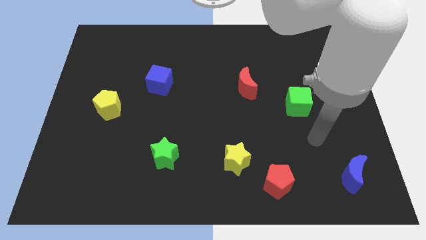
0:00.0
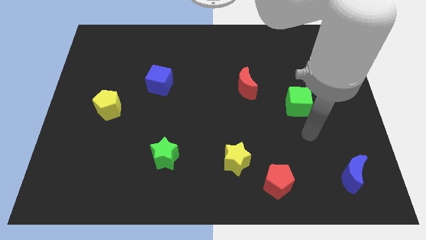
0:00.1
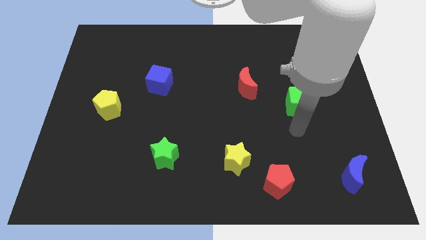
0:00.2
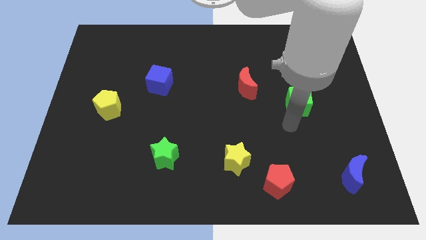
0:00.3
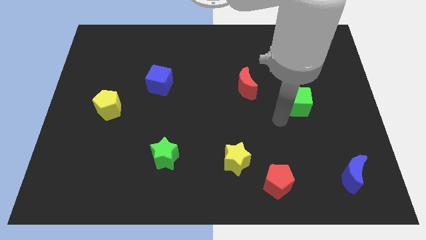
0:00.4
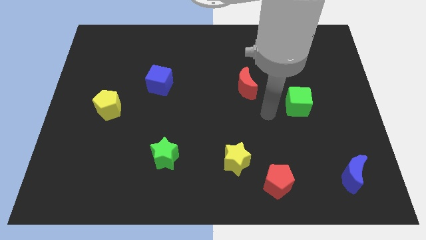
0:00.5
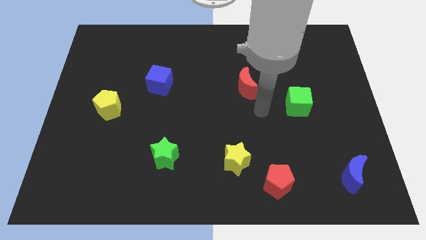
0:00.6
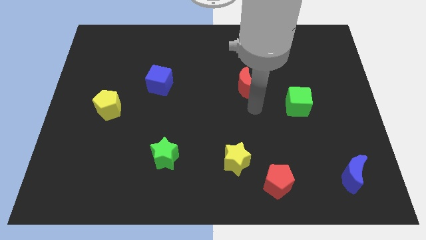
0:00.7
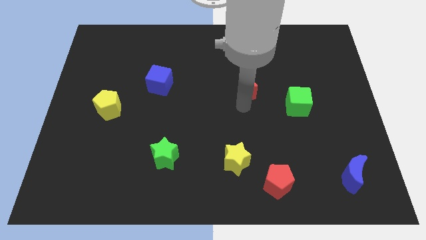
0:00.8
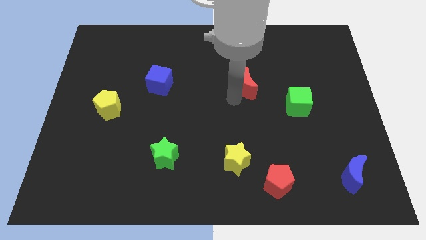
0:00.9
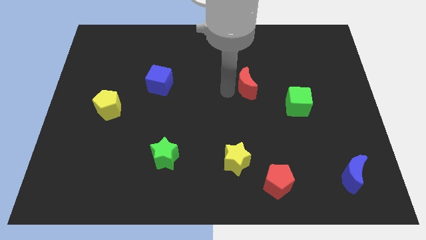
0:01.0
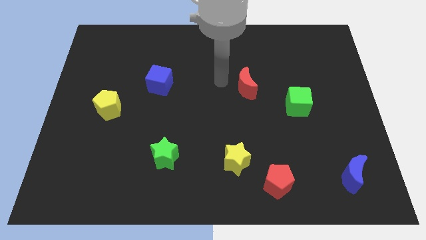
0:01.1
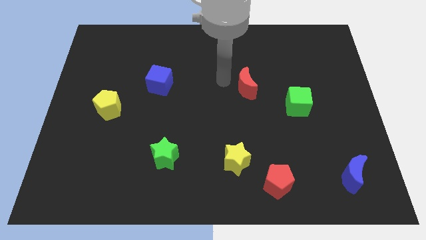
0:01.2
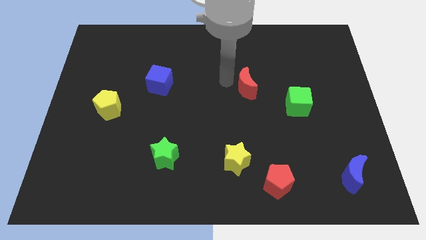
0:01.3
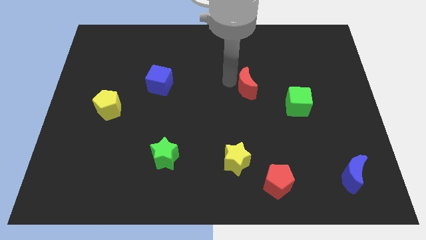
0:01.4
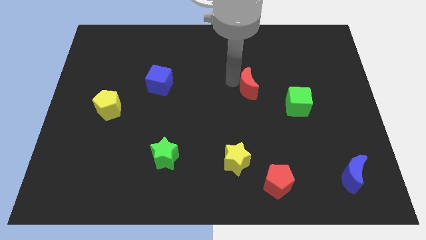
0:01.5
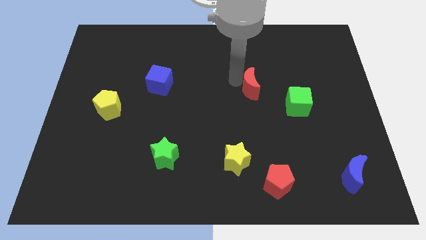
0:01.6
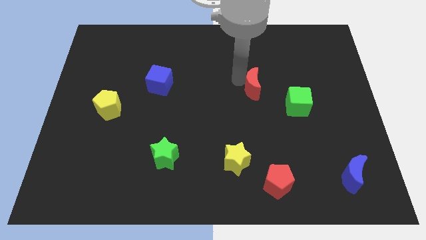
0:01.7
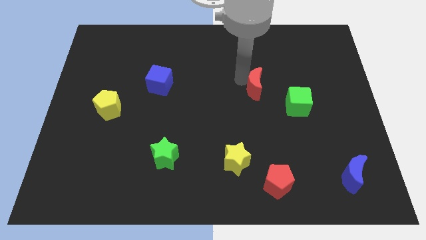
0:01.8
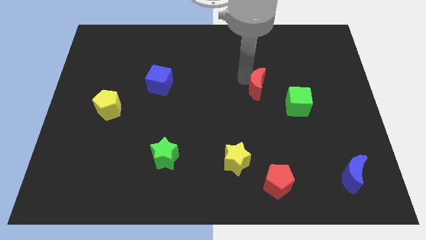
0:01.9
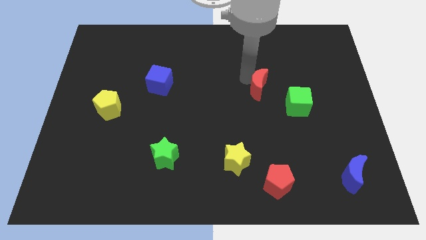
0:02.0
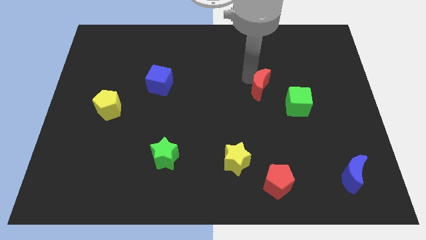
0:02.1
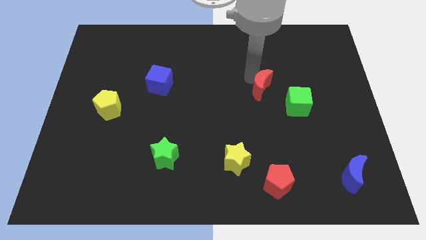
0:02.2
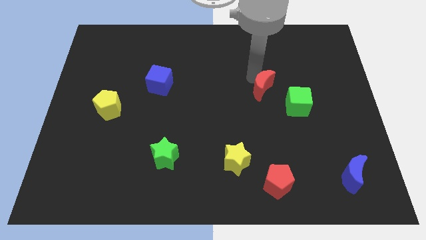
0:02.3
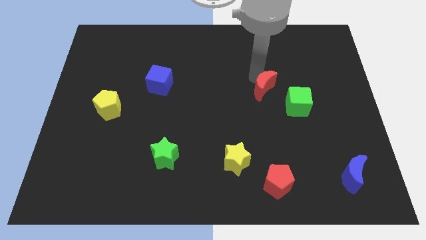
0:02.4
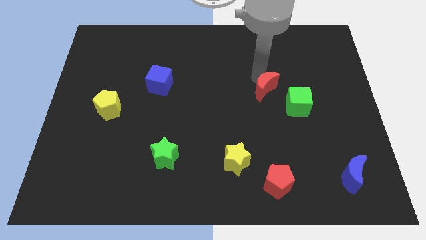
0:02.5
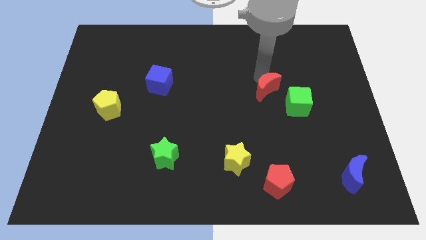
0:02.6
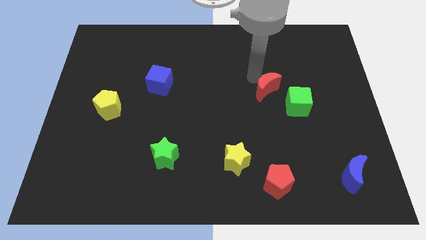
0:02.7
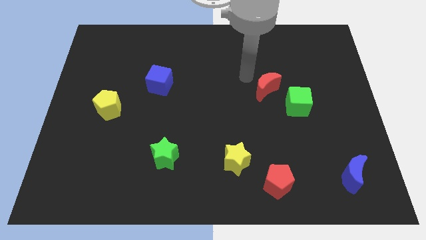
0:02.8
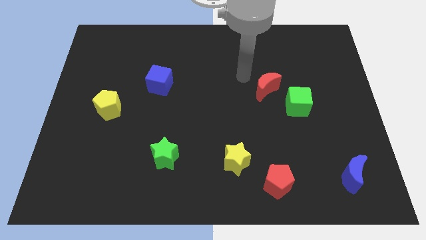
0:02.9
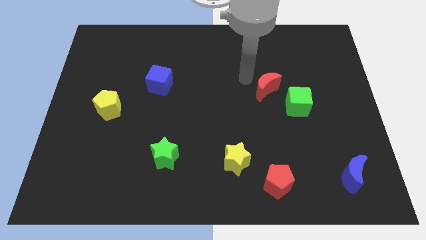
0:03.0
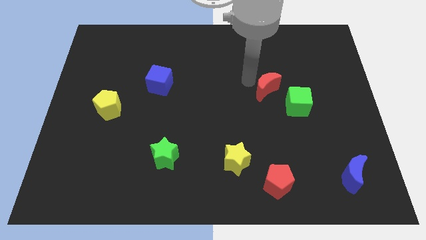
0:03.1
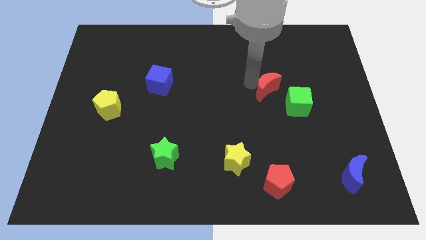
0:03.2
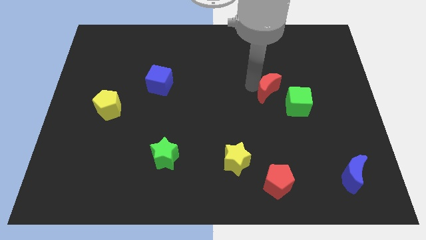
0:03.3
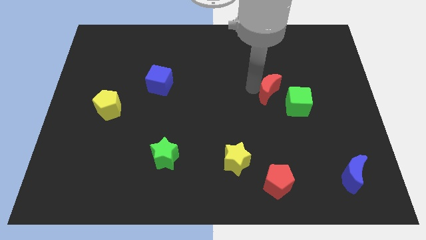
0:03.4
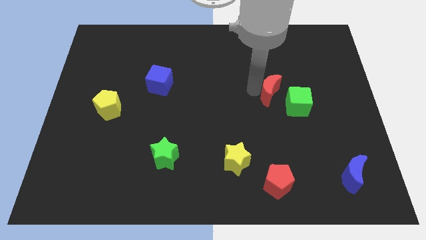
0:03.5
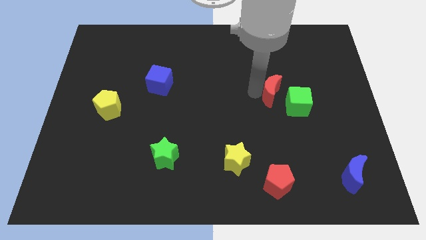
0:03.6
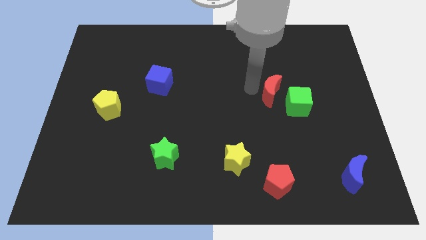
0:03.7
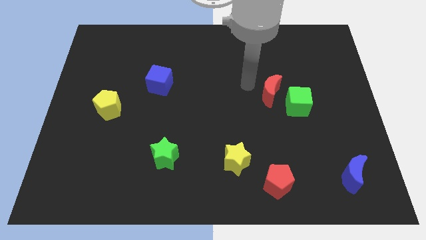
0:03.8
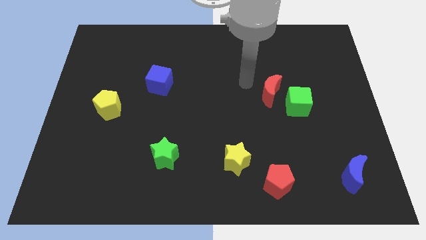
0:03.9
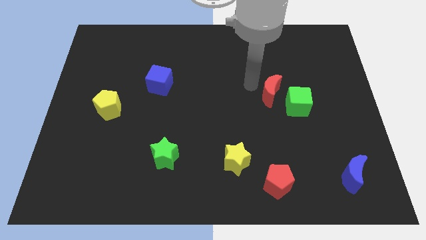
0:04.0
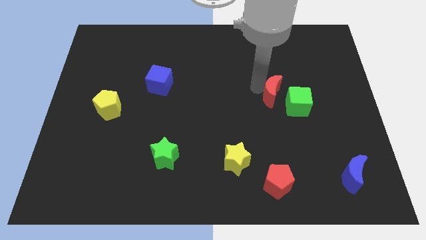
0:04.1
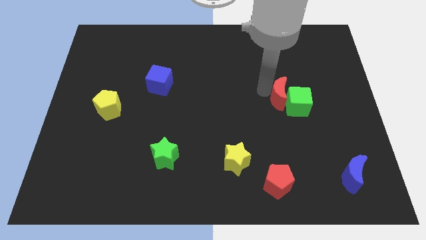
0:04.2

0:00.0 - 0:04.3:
push the red moon towards the green cube

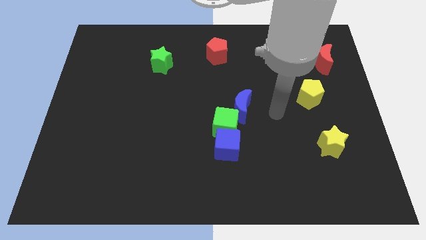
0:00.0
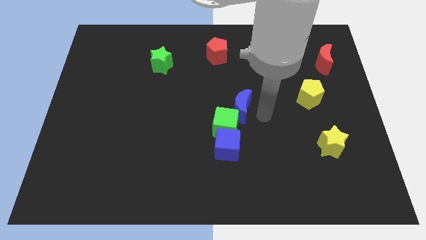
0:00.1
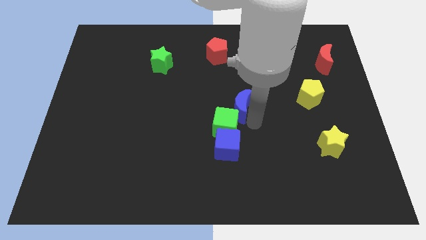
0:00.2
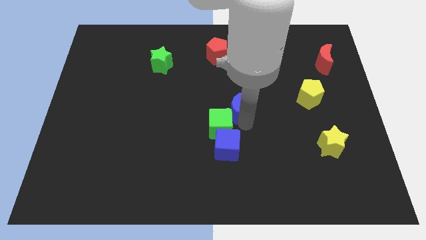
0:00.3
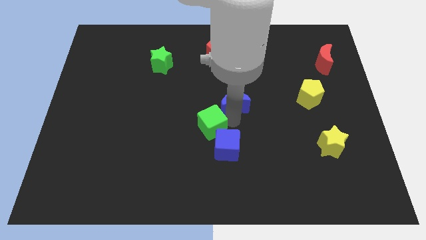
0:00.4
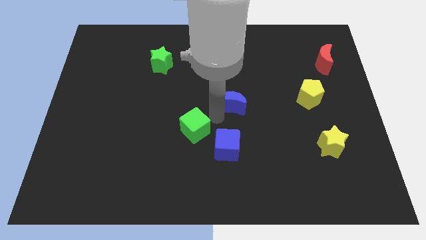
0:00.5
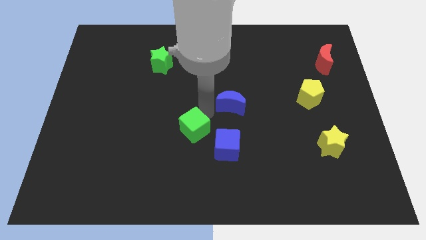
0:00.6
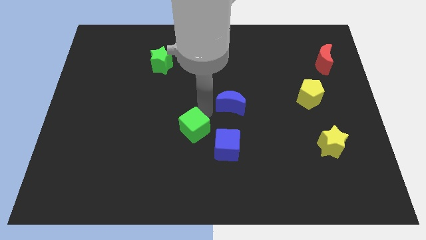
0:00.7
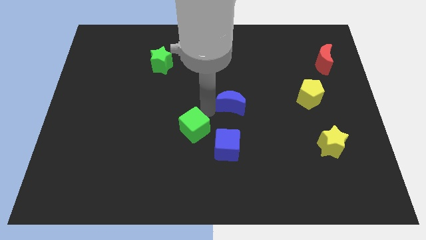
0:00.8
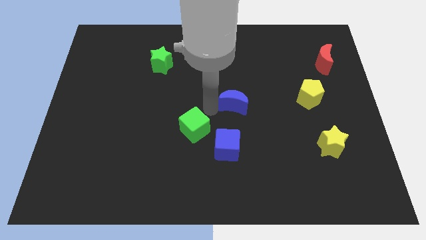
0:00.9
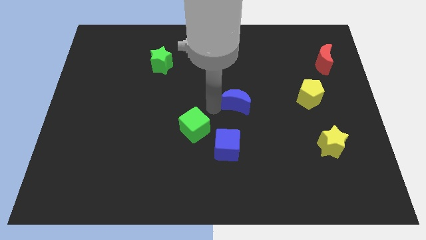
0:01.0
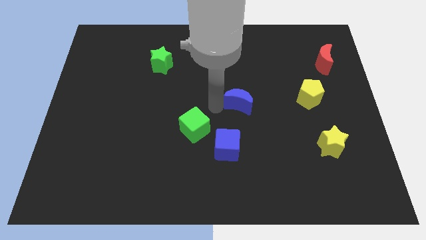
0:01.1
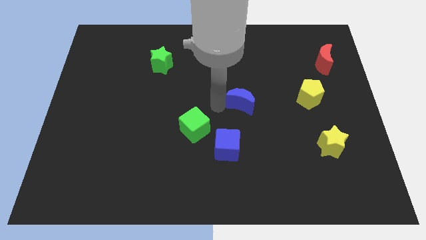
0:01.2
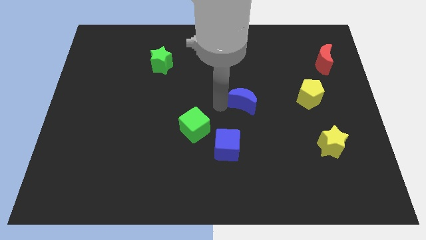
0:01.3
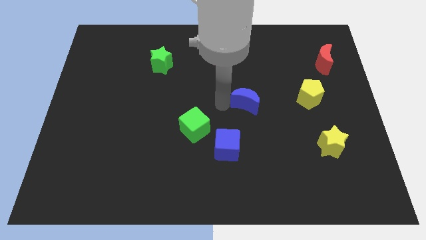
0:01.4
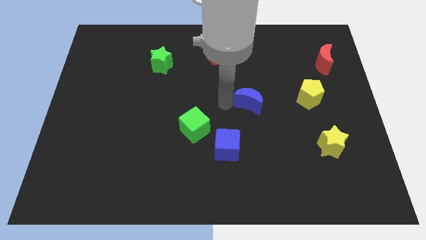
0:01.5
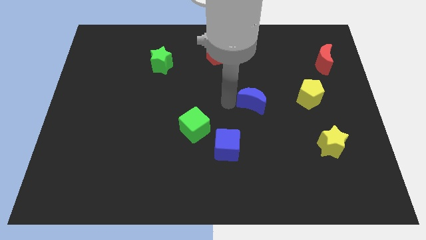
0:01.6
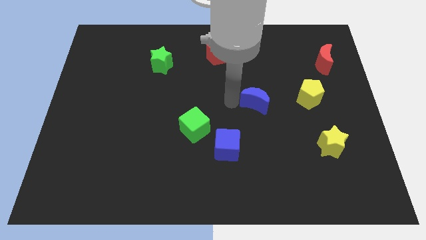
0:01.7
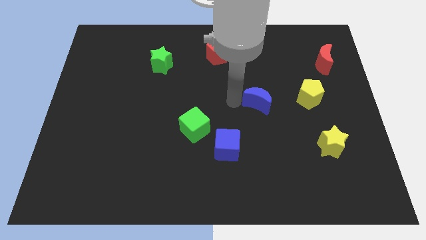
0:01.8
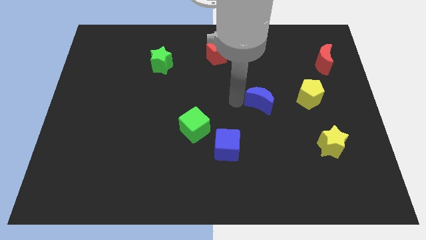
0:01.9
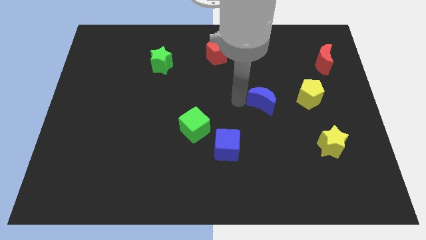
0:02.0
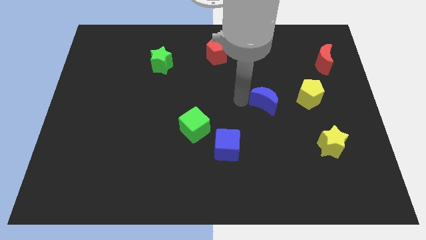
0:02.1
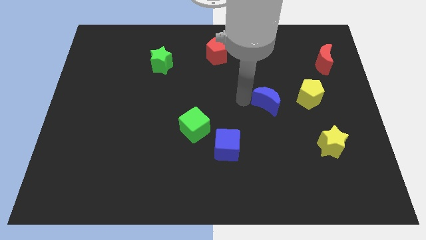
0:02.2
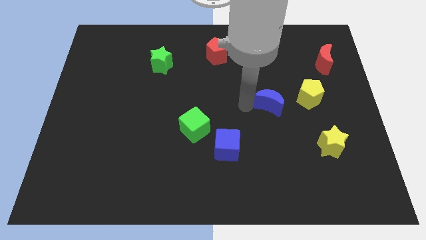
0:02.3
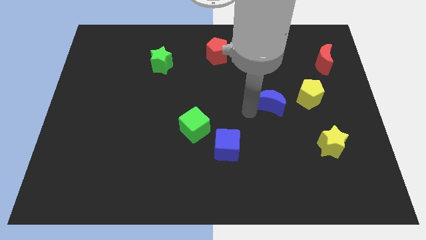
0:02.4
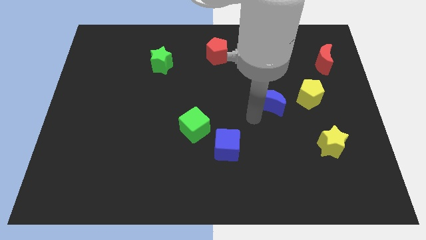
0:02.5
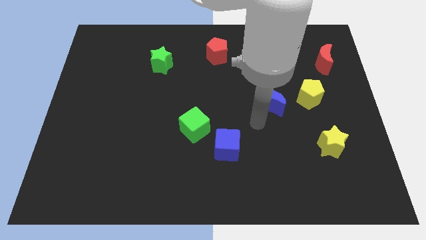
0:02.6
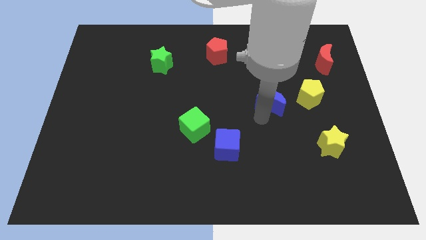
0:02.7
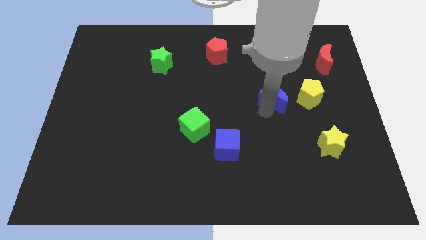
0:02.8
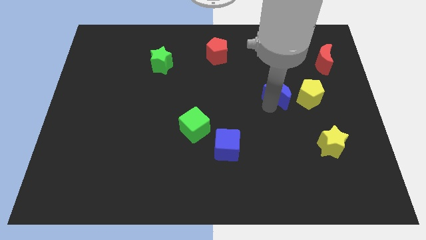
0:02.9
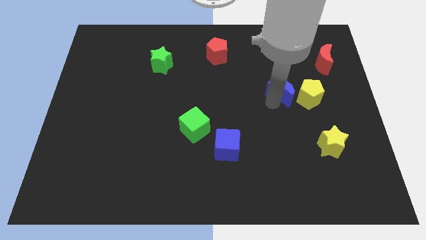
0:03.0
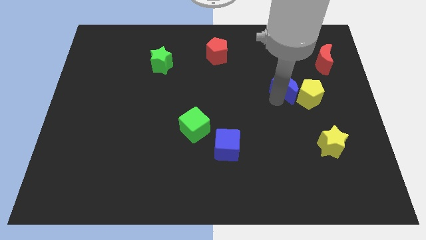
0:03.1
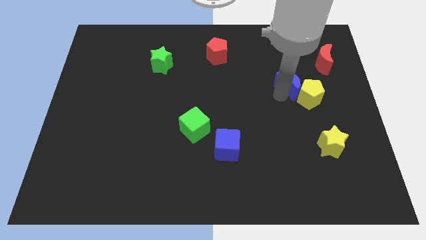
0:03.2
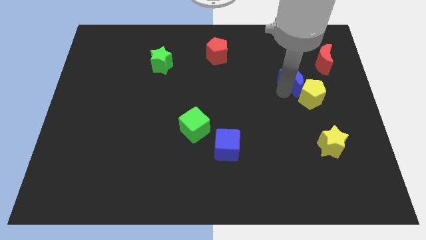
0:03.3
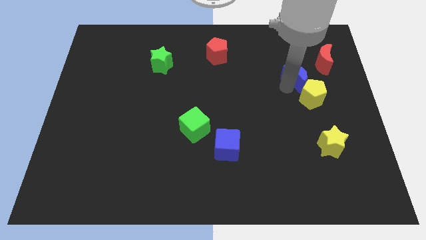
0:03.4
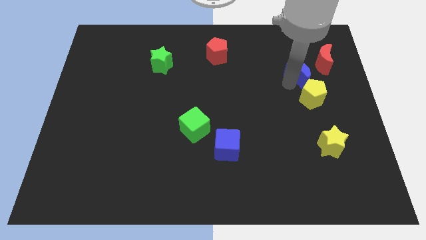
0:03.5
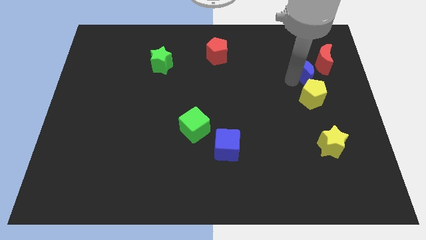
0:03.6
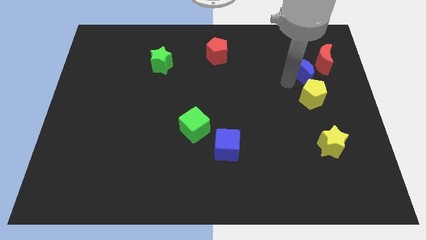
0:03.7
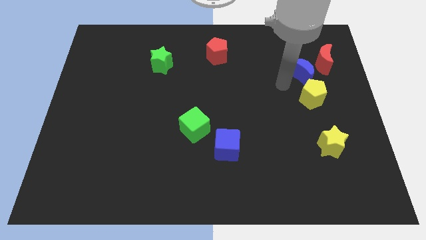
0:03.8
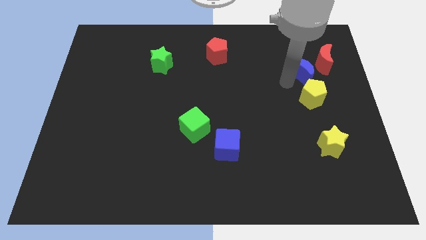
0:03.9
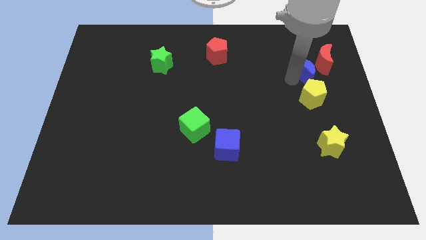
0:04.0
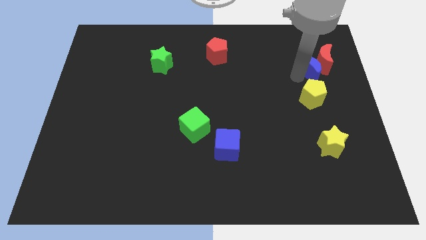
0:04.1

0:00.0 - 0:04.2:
put the blue moon next to the red moon
